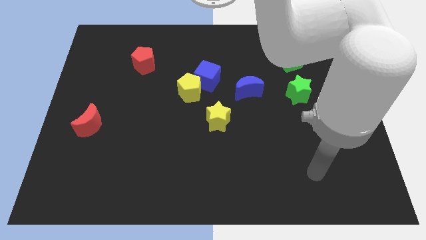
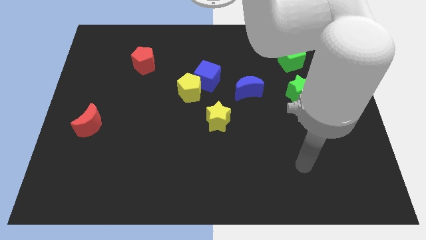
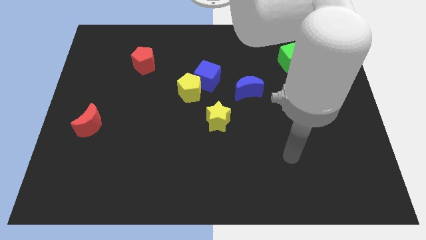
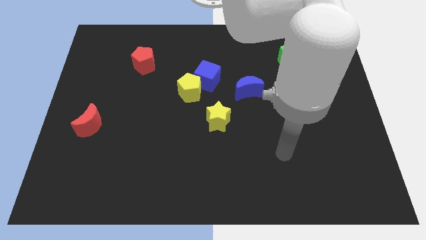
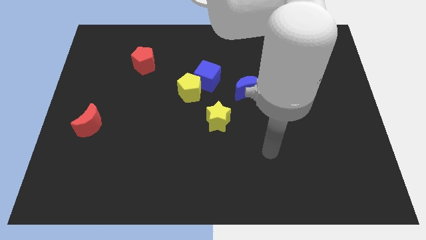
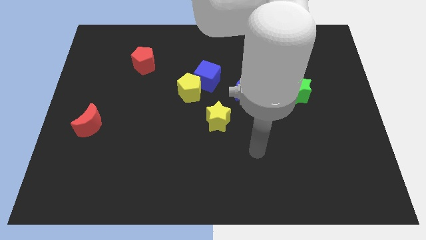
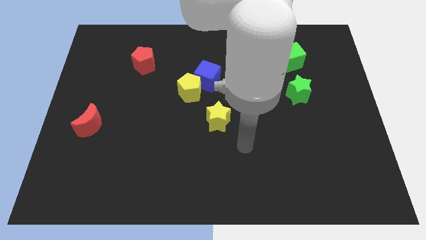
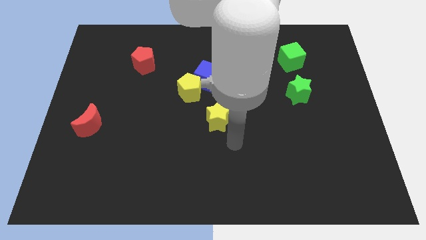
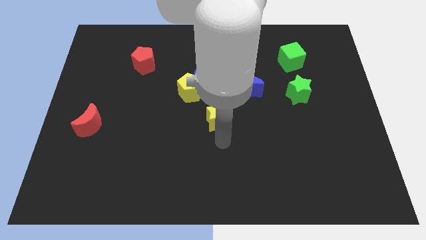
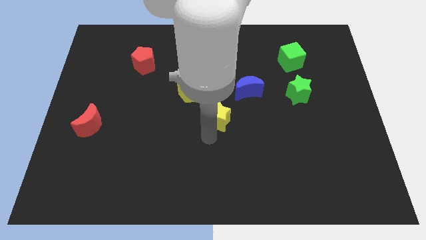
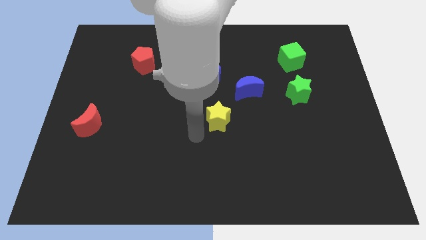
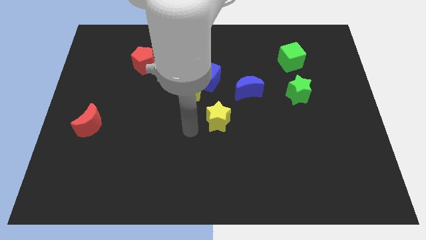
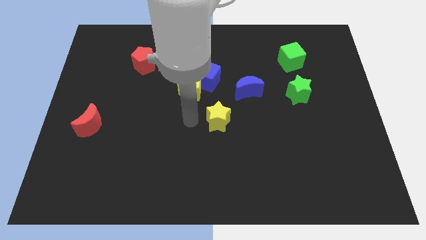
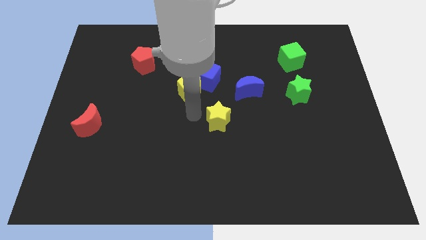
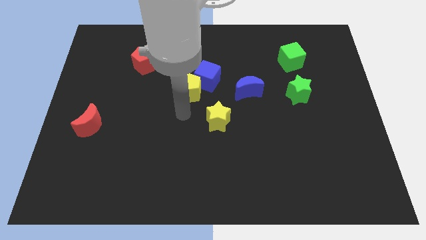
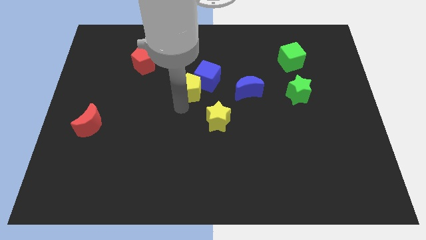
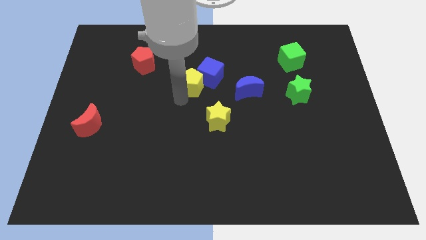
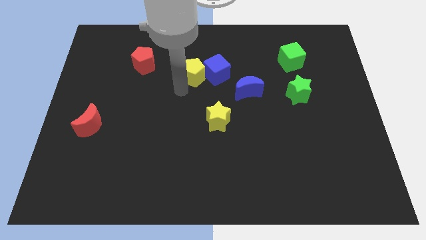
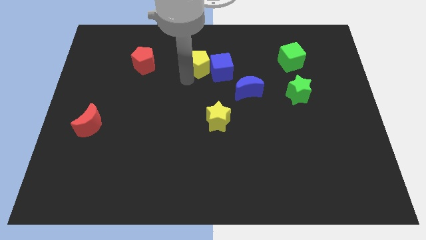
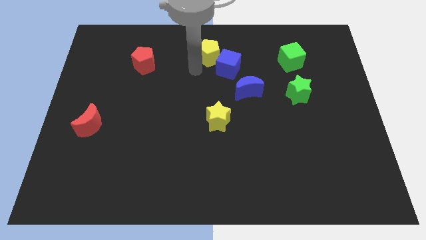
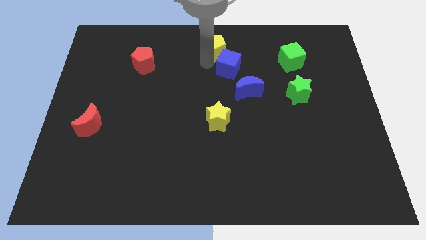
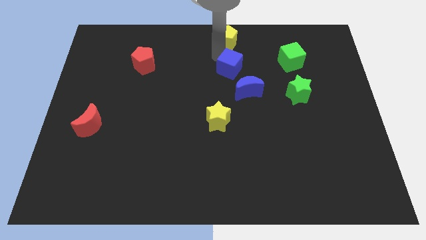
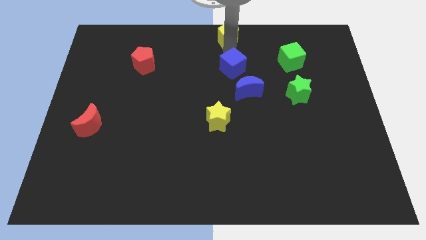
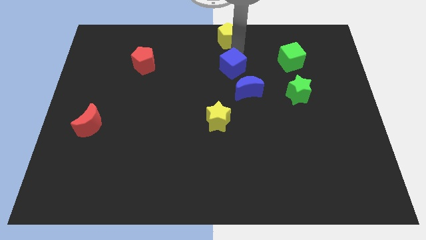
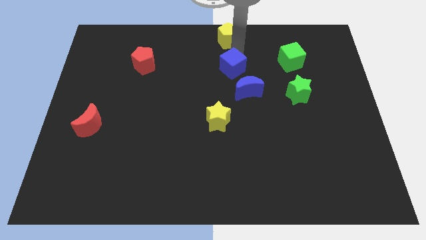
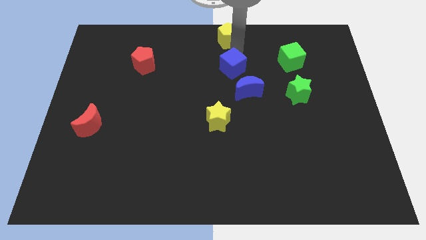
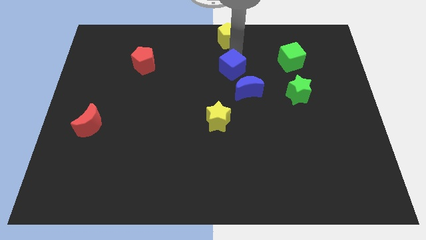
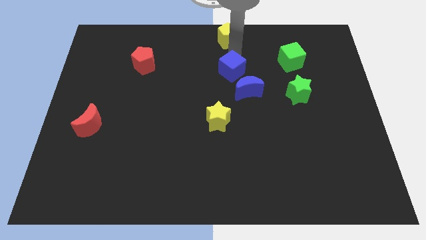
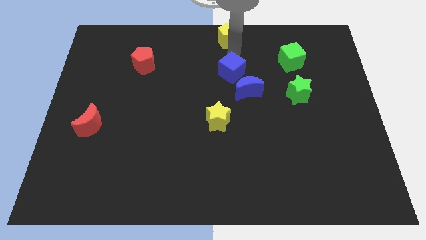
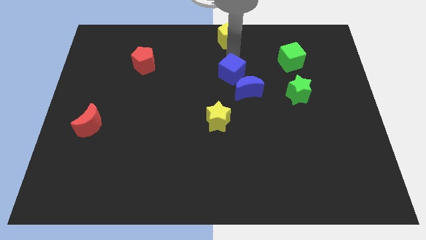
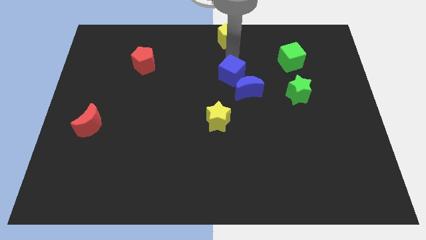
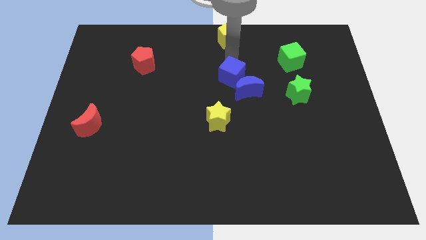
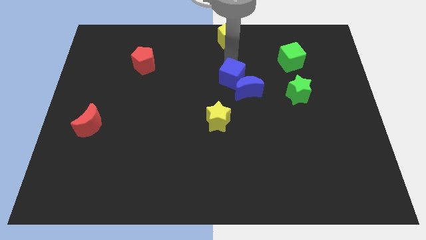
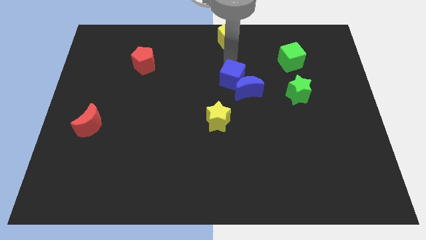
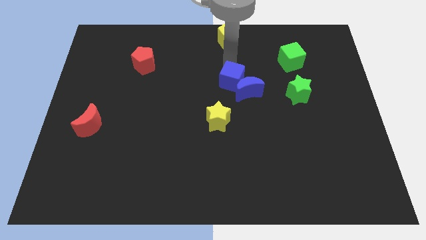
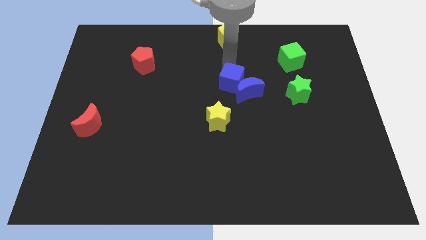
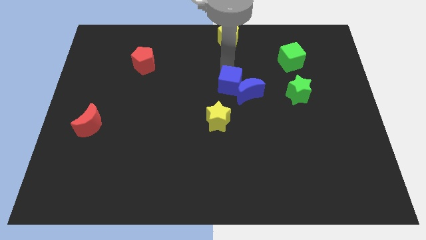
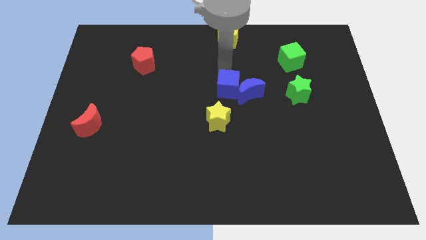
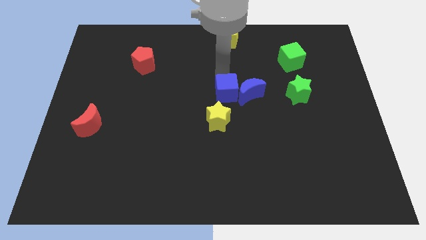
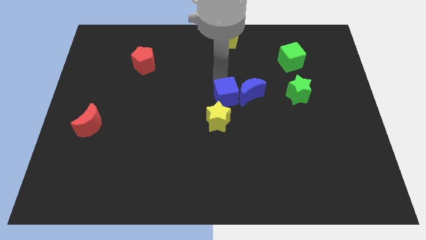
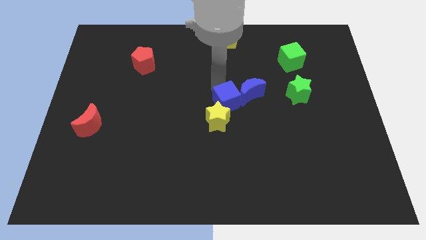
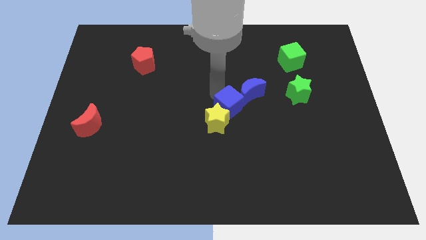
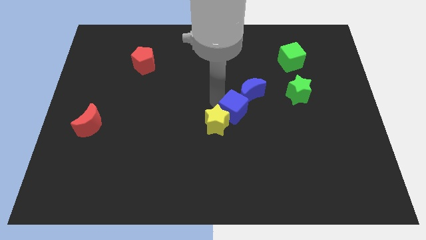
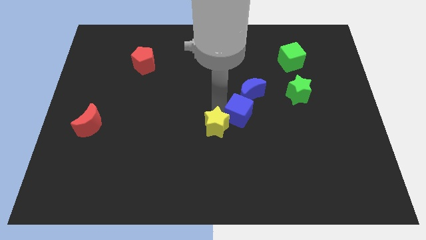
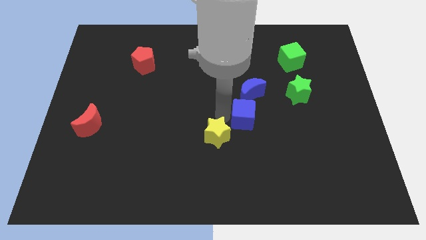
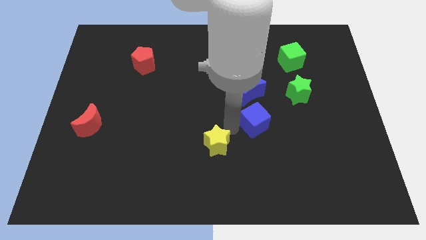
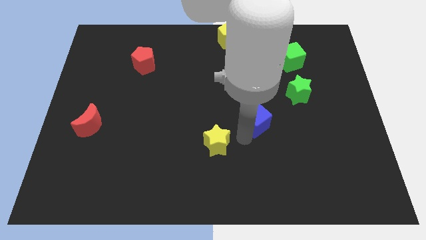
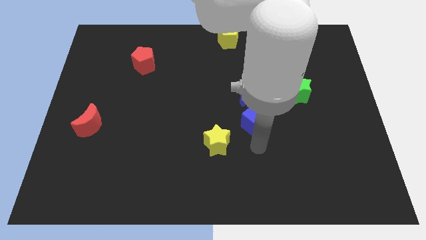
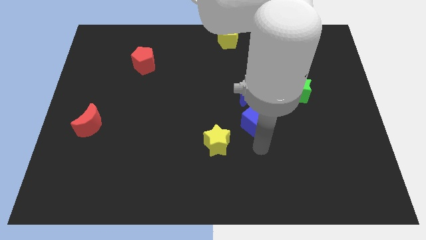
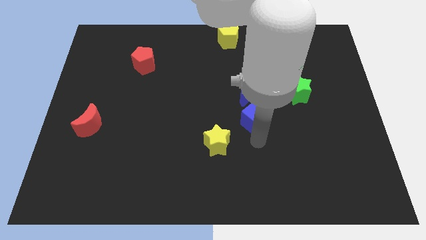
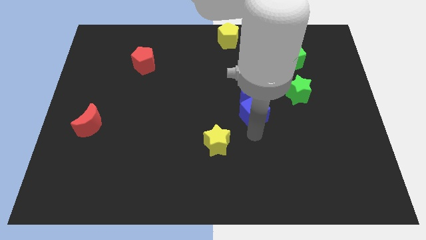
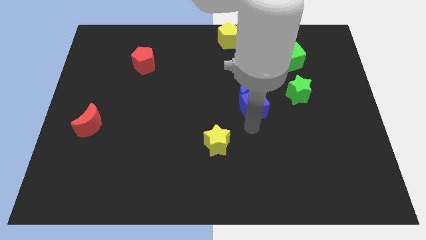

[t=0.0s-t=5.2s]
slide the blue cube a little right

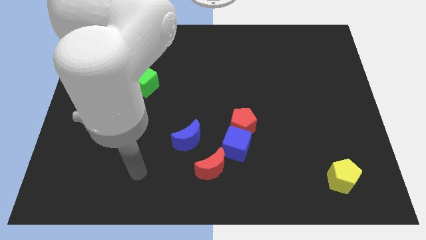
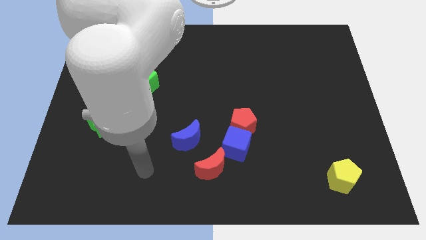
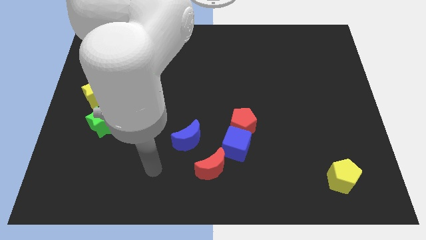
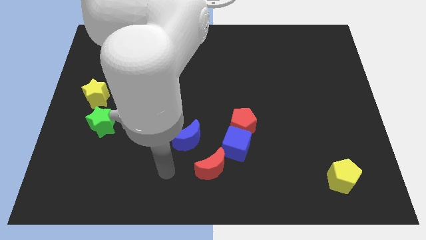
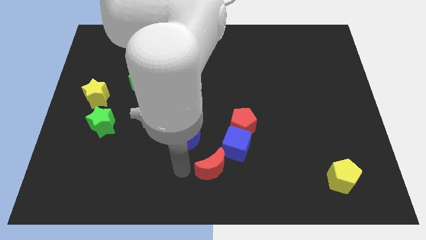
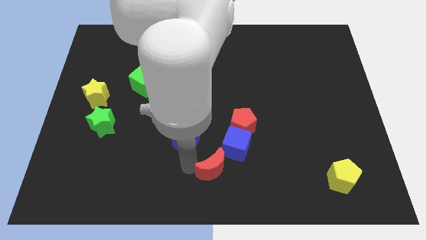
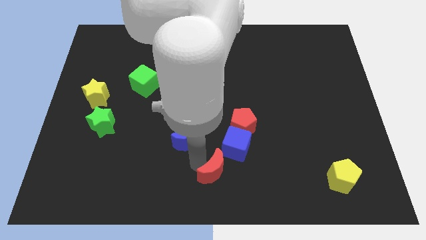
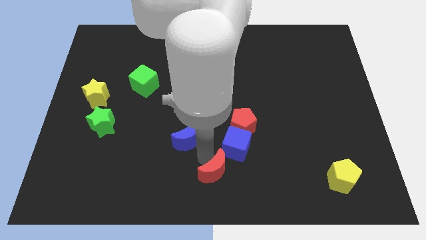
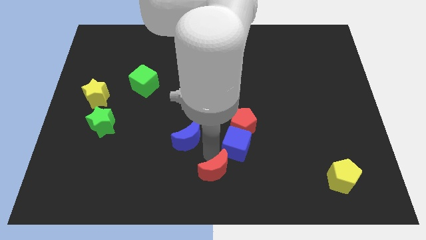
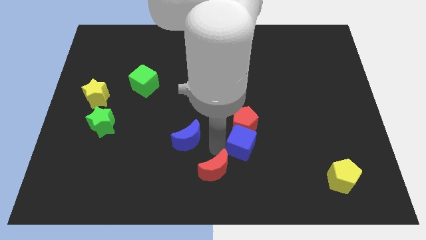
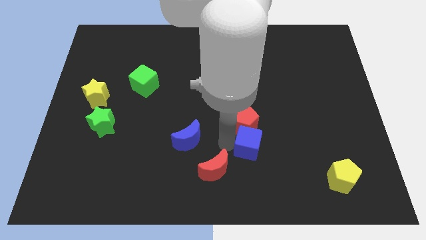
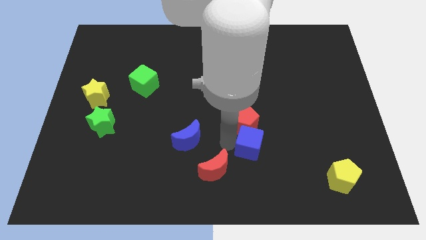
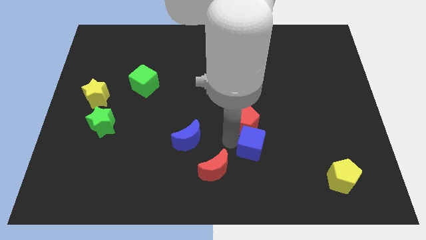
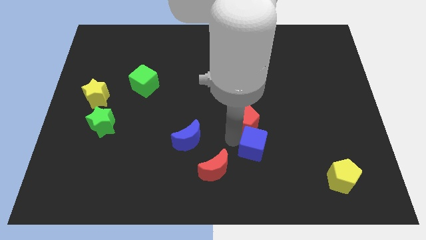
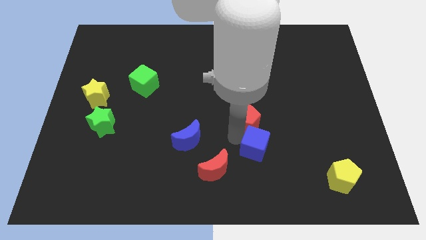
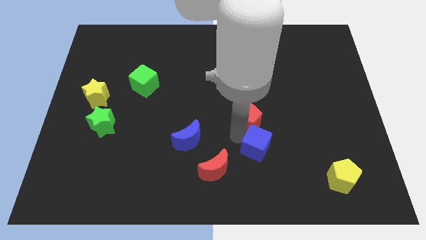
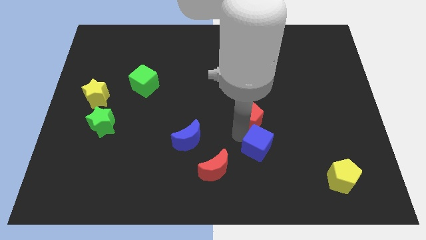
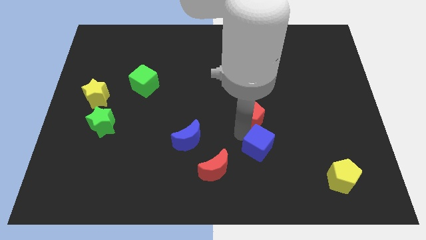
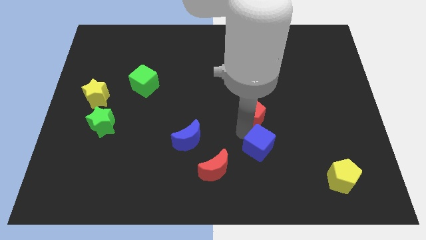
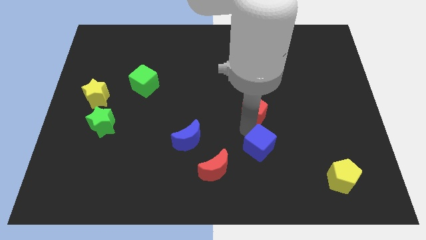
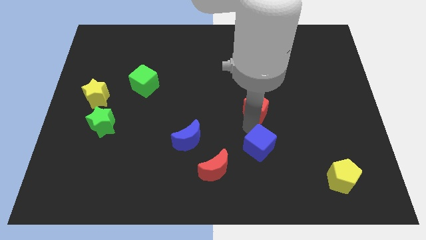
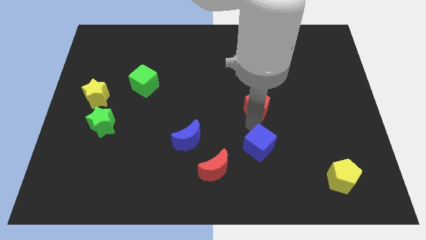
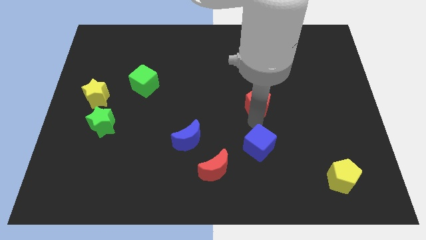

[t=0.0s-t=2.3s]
slightly move the red pentagon up and right

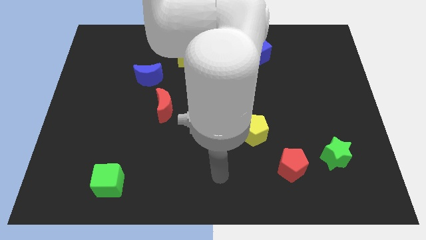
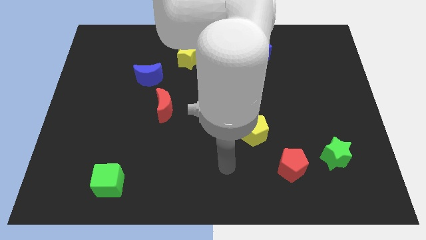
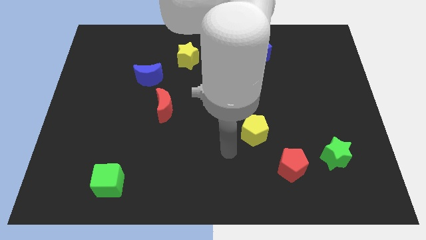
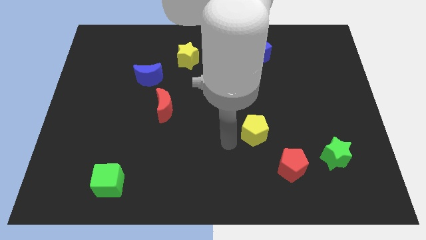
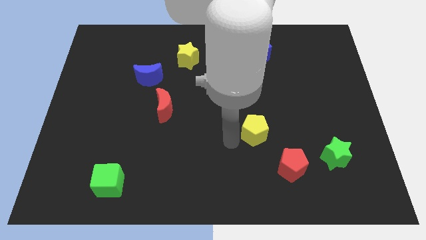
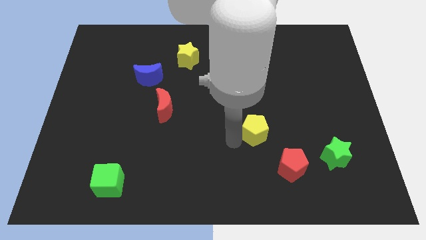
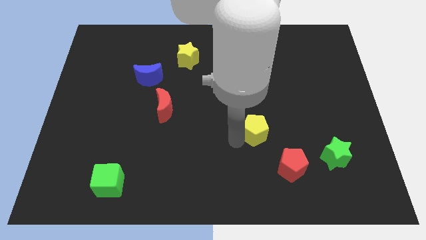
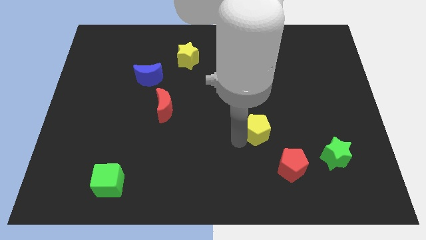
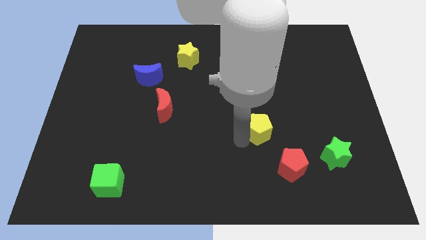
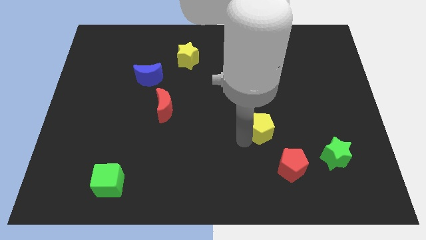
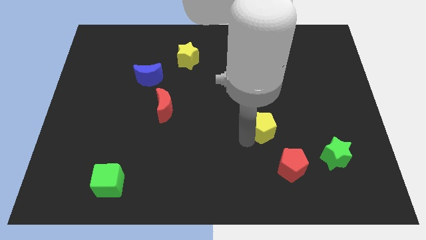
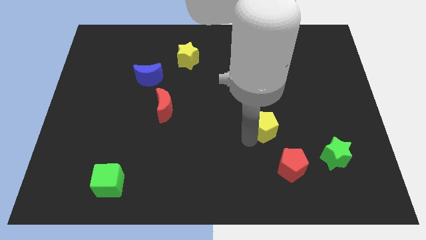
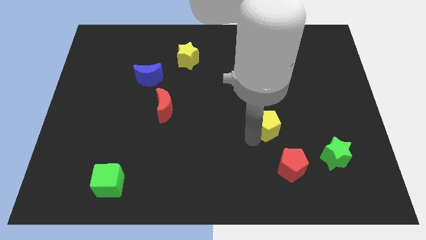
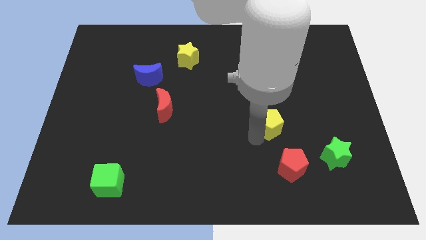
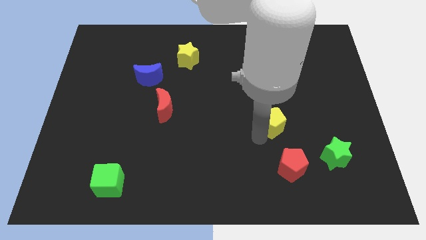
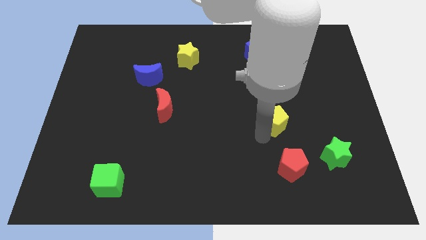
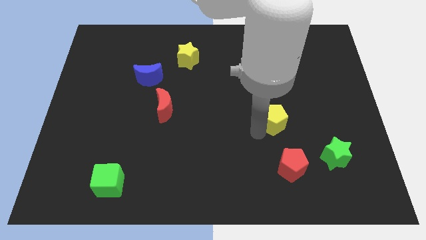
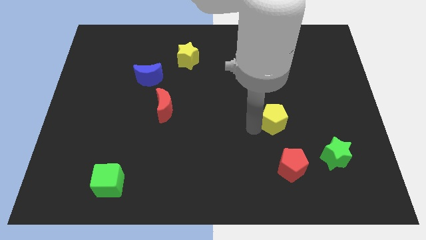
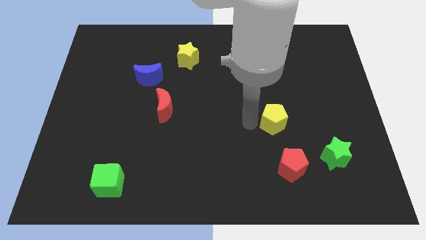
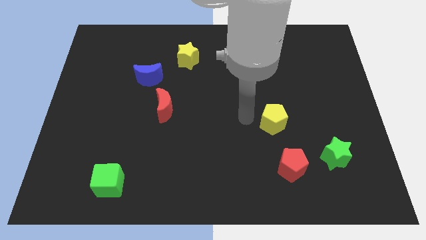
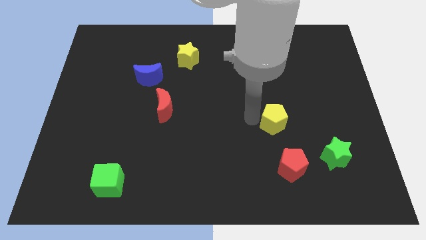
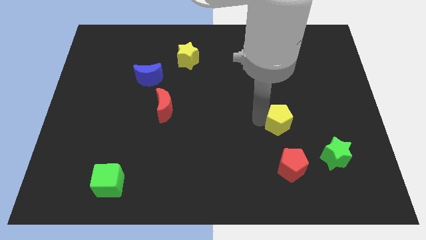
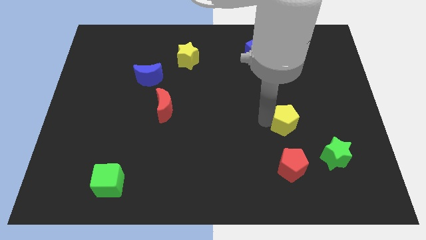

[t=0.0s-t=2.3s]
move the yellow pentagon right a bit
